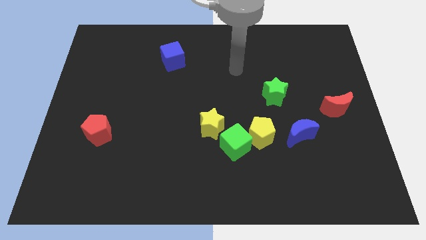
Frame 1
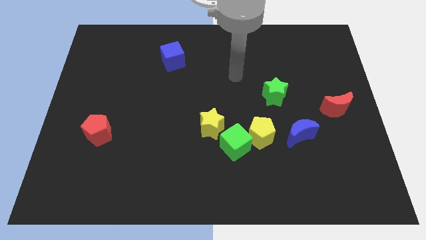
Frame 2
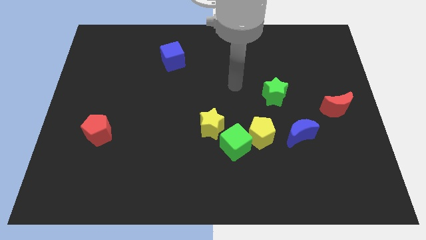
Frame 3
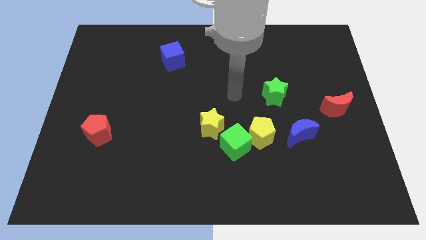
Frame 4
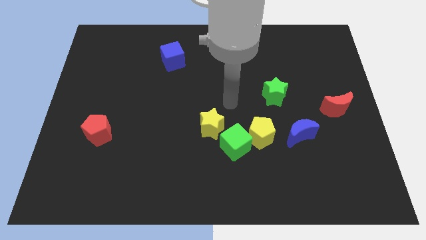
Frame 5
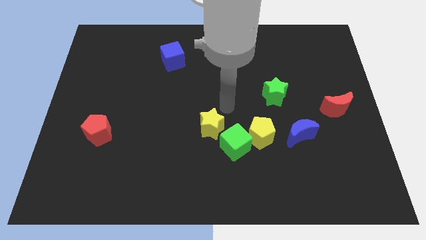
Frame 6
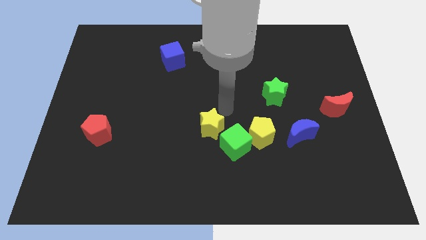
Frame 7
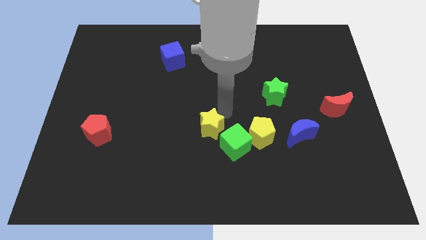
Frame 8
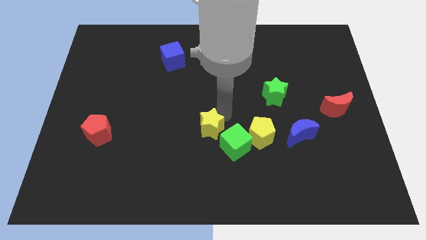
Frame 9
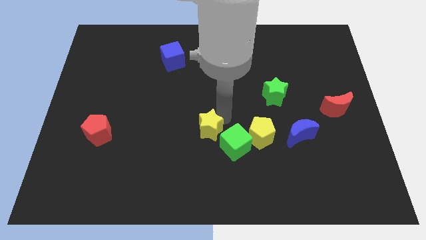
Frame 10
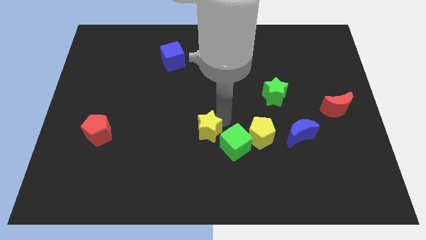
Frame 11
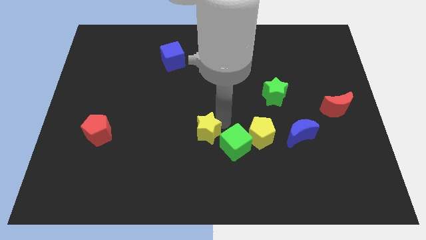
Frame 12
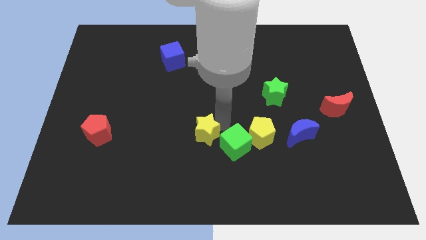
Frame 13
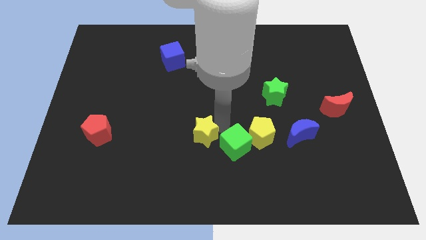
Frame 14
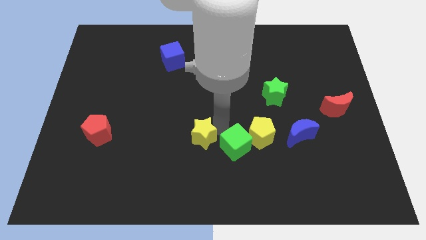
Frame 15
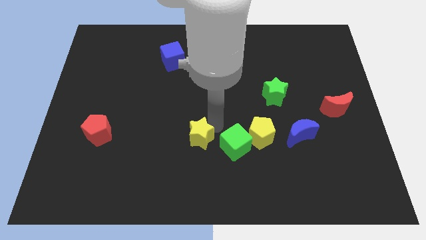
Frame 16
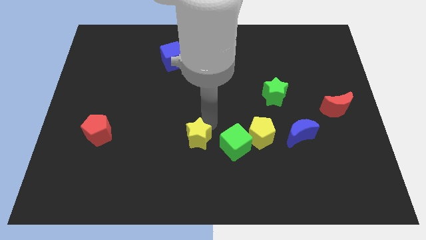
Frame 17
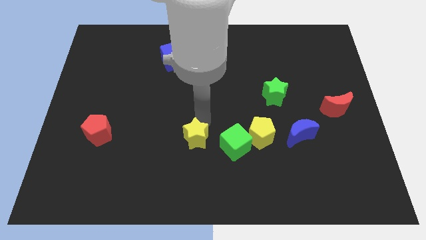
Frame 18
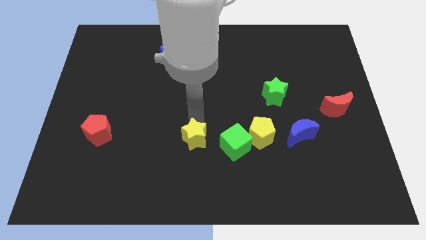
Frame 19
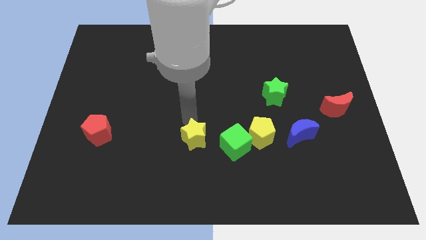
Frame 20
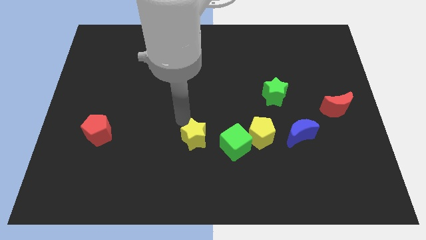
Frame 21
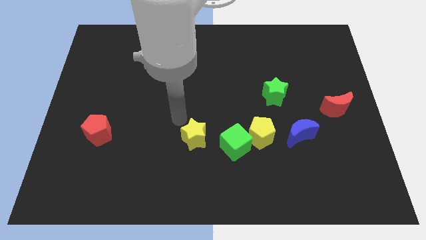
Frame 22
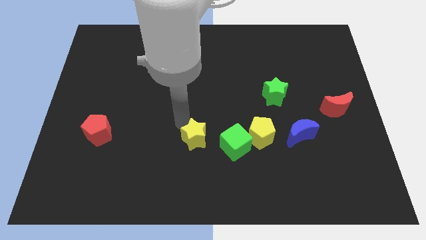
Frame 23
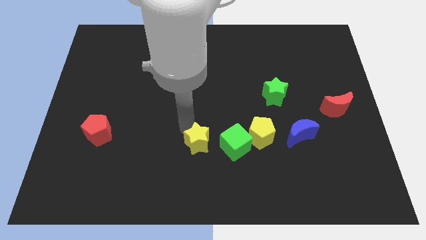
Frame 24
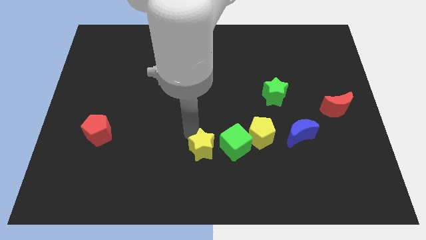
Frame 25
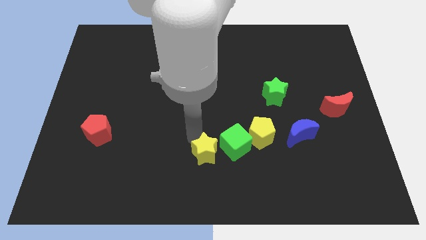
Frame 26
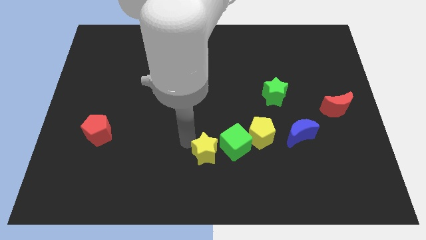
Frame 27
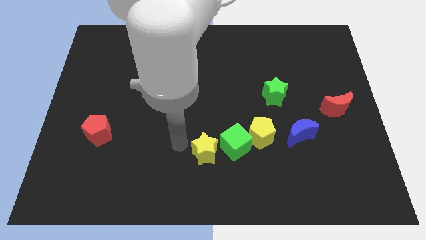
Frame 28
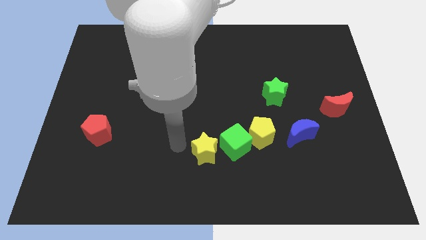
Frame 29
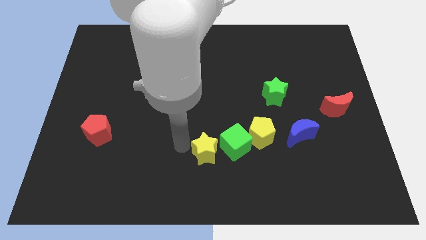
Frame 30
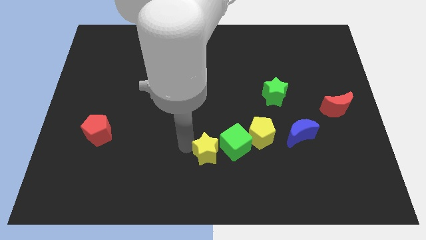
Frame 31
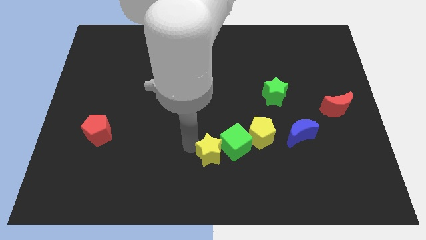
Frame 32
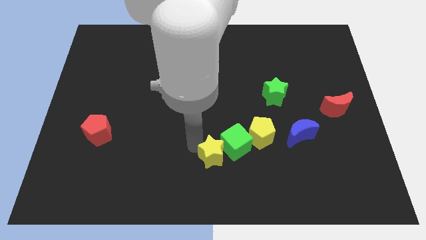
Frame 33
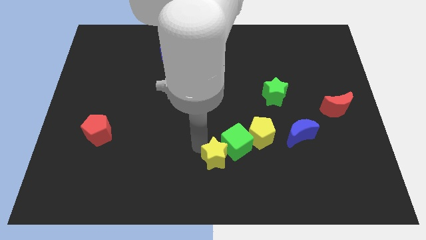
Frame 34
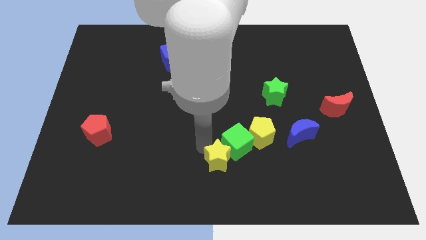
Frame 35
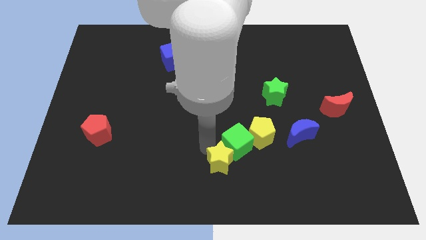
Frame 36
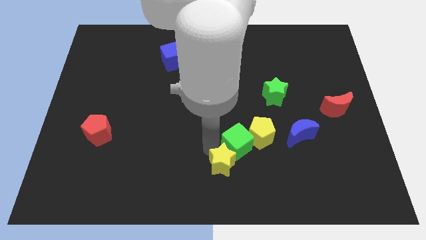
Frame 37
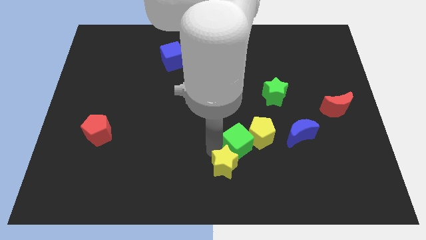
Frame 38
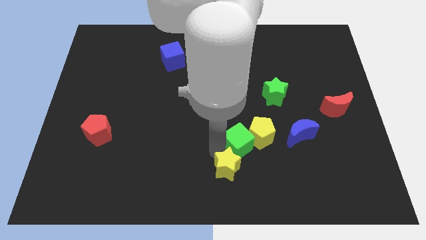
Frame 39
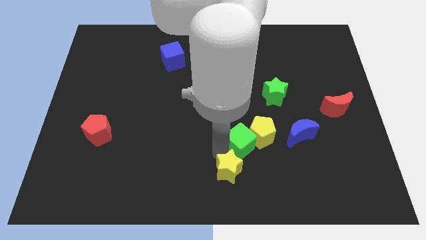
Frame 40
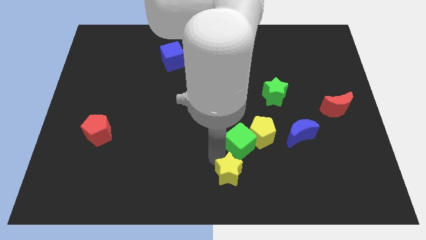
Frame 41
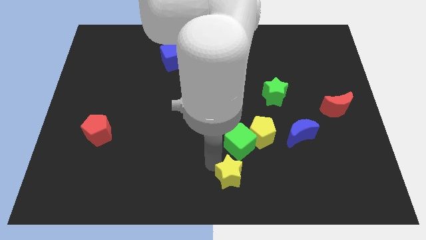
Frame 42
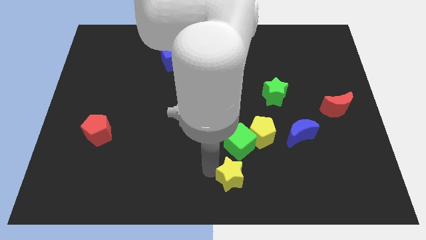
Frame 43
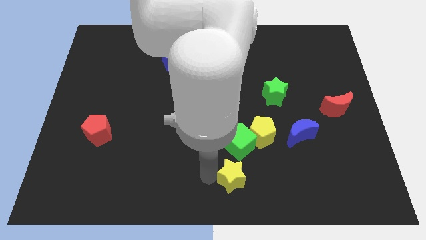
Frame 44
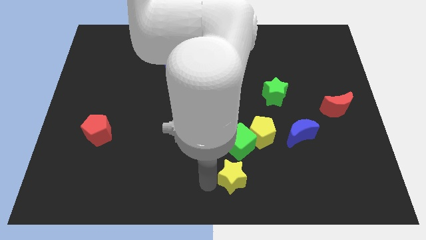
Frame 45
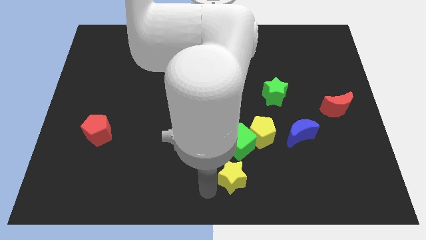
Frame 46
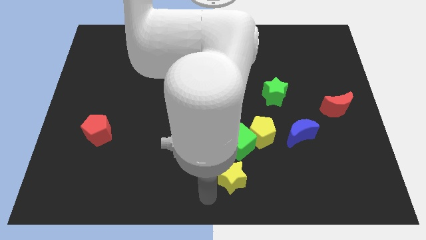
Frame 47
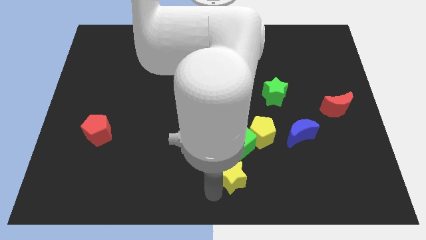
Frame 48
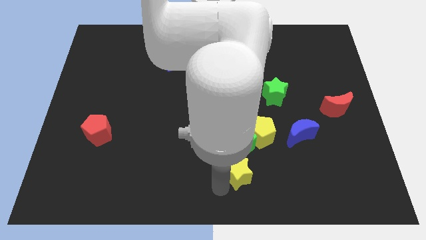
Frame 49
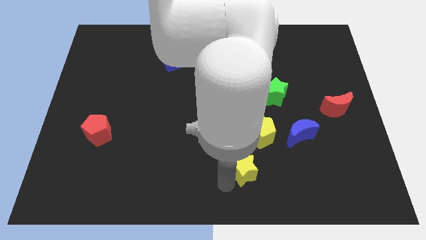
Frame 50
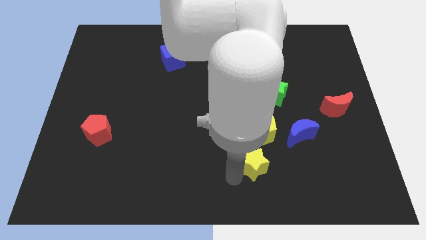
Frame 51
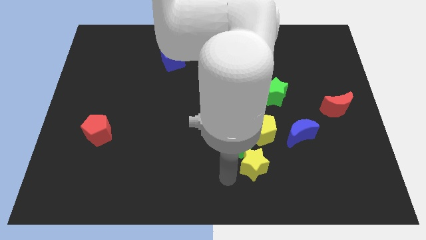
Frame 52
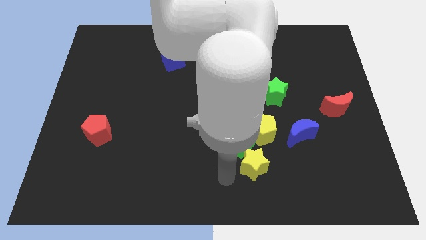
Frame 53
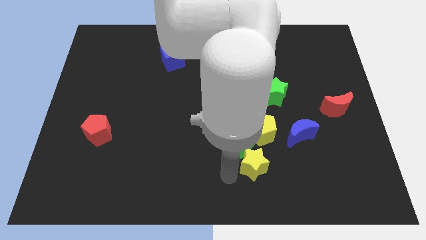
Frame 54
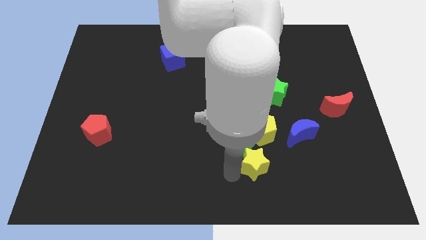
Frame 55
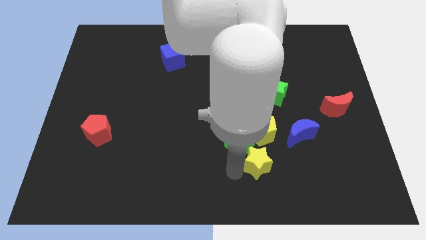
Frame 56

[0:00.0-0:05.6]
move the yellow star to the bottom left of the blue moon

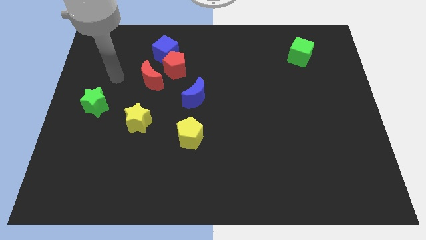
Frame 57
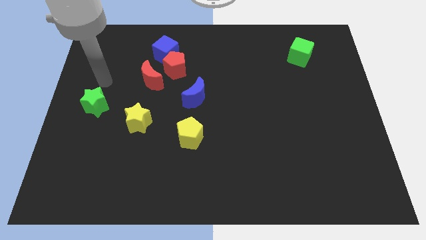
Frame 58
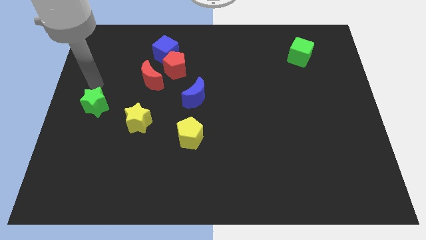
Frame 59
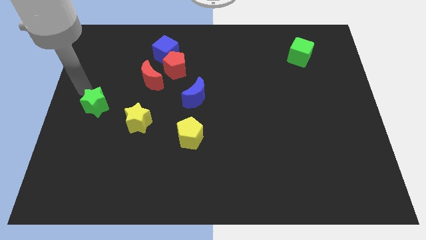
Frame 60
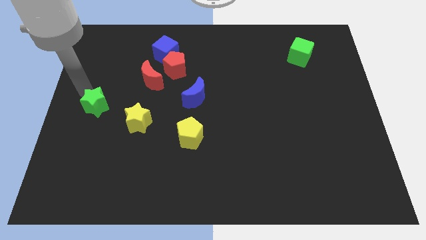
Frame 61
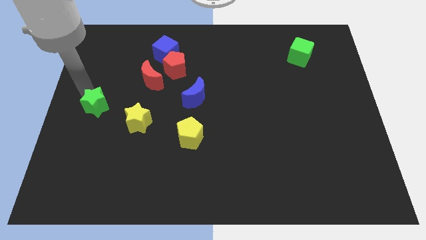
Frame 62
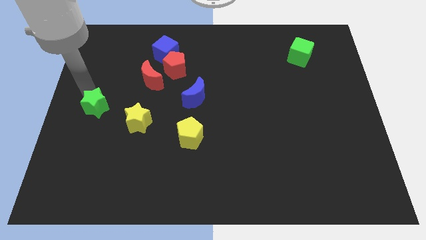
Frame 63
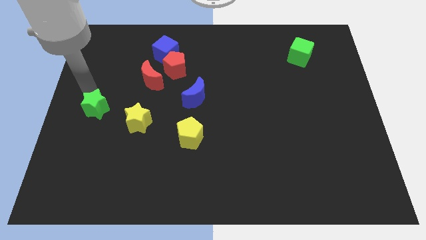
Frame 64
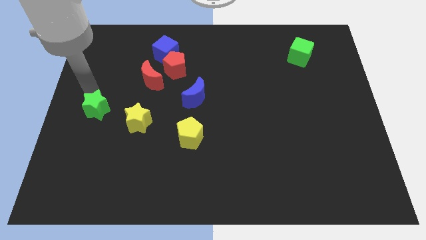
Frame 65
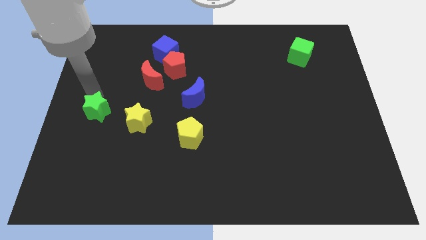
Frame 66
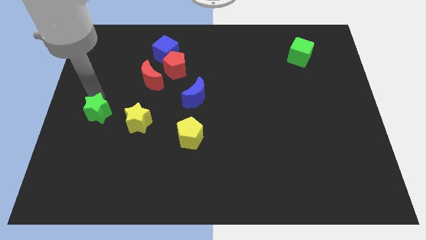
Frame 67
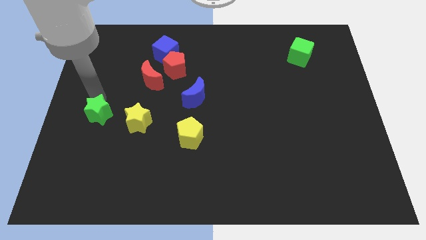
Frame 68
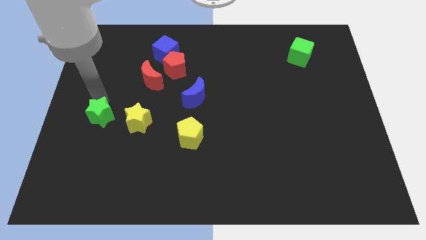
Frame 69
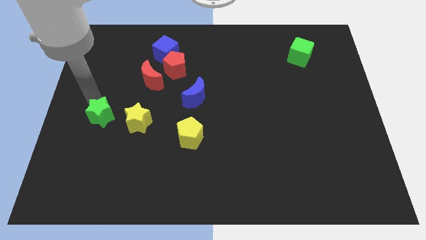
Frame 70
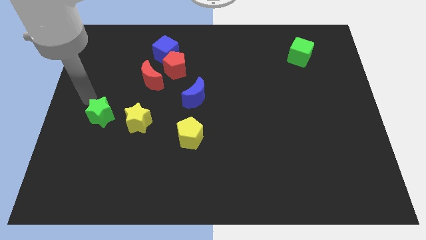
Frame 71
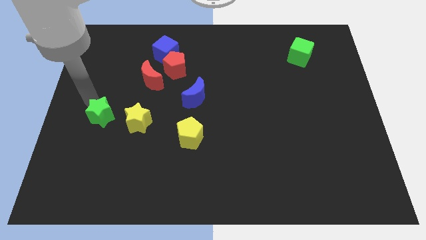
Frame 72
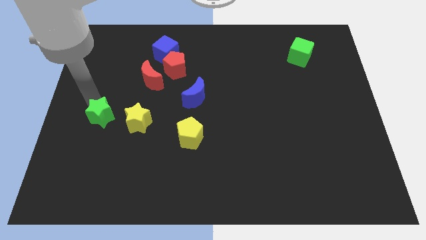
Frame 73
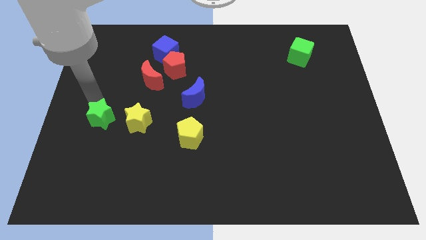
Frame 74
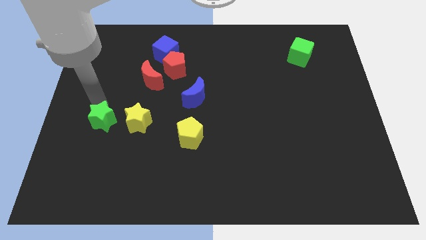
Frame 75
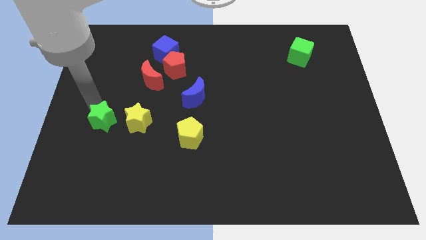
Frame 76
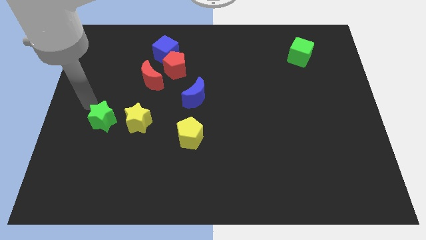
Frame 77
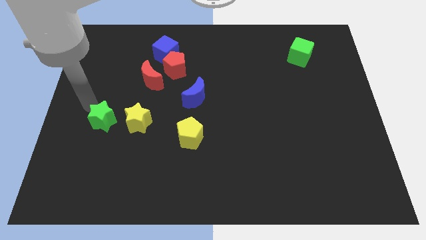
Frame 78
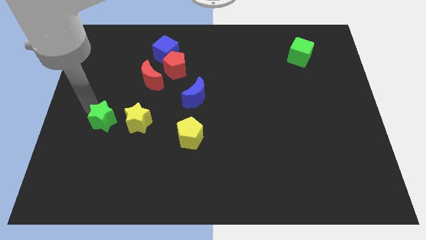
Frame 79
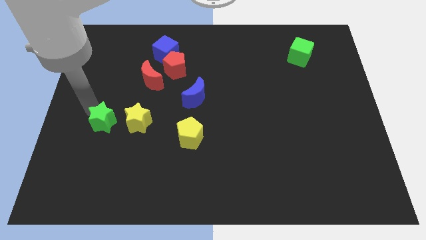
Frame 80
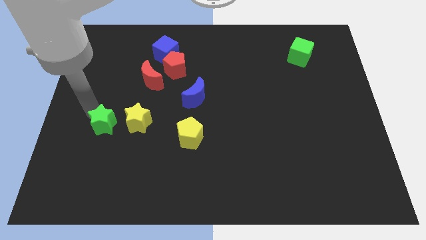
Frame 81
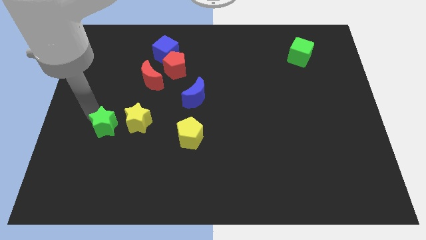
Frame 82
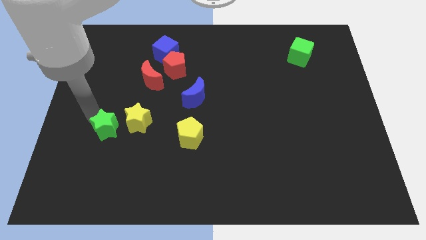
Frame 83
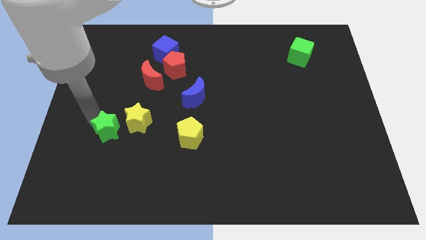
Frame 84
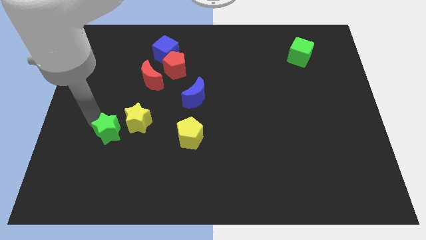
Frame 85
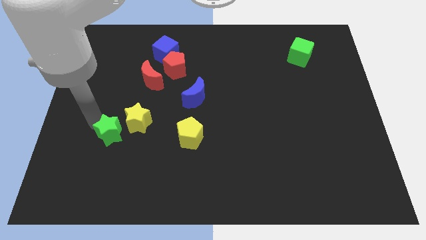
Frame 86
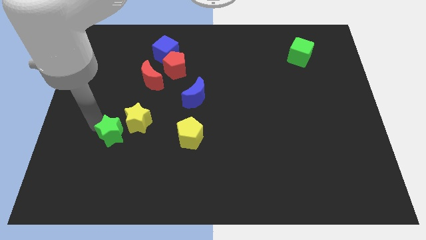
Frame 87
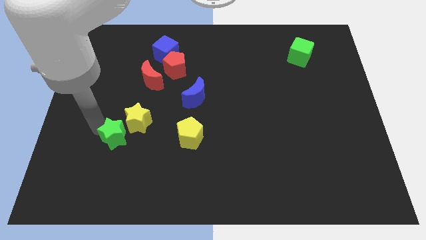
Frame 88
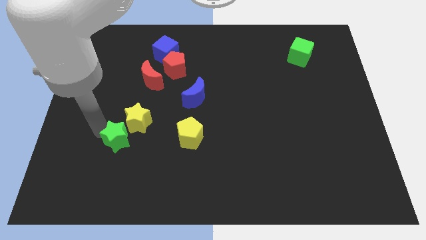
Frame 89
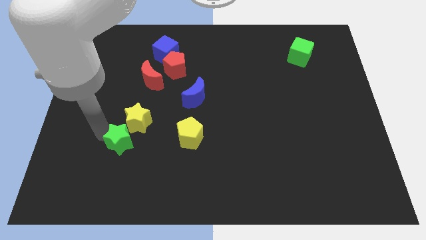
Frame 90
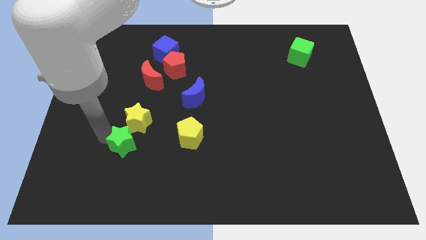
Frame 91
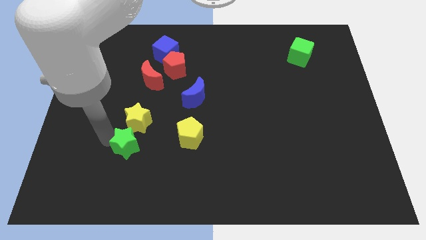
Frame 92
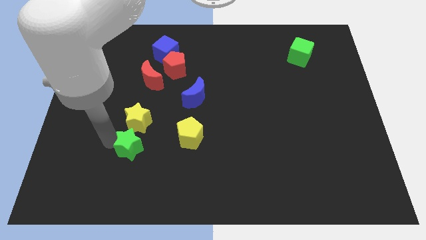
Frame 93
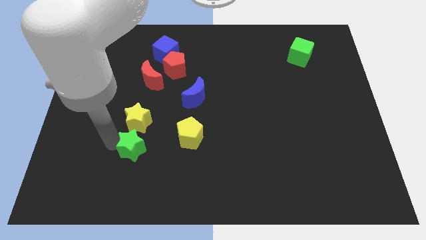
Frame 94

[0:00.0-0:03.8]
push the green star to the bottom right side of the yellow star
